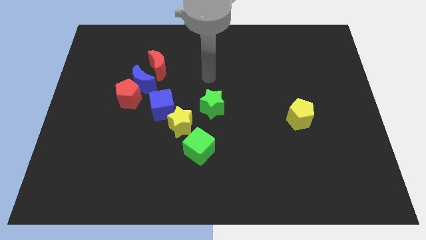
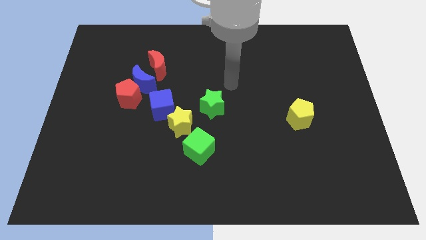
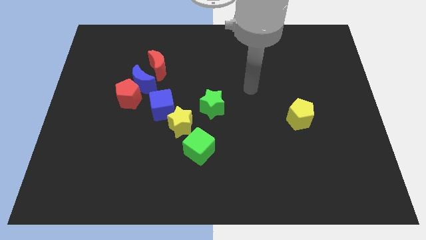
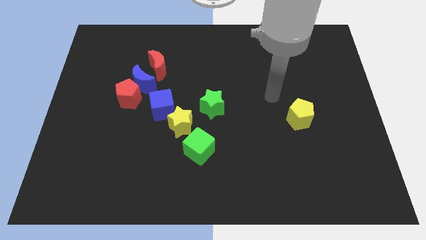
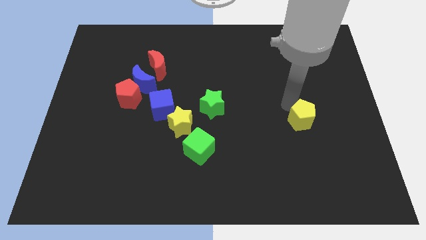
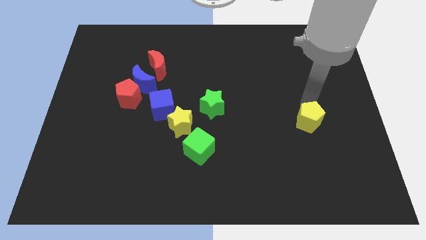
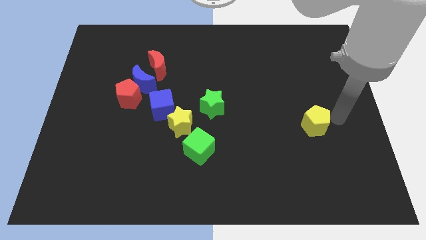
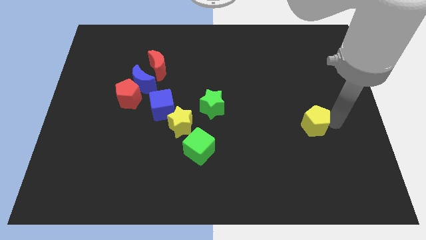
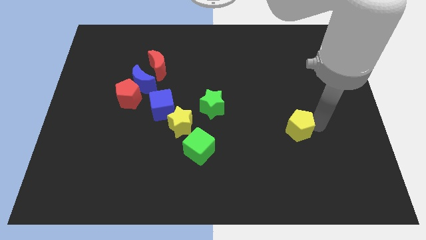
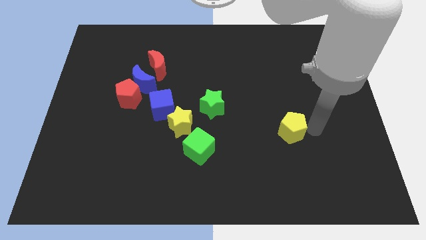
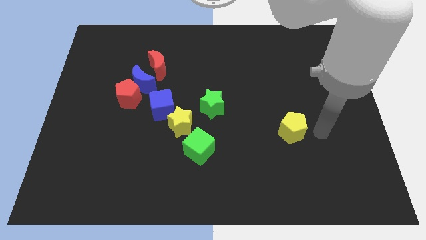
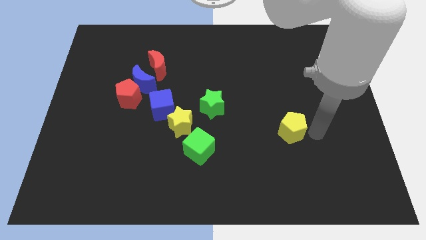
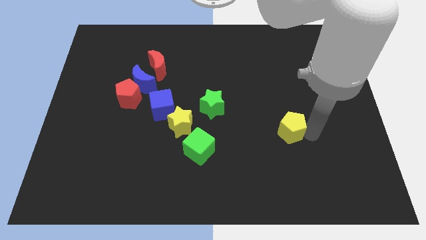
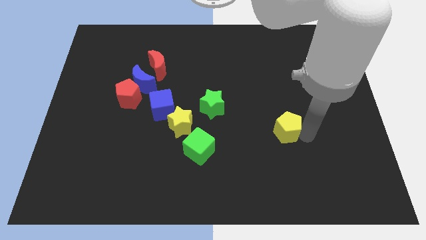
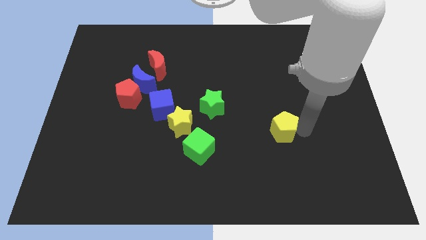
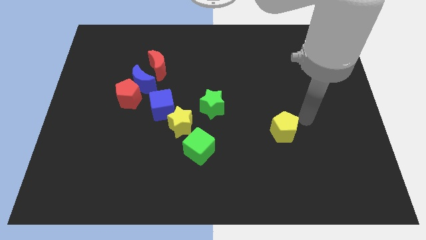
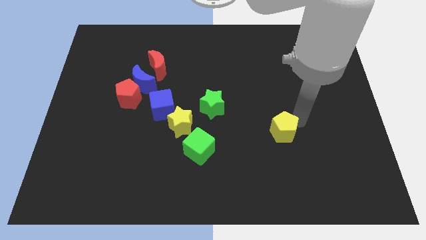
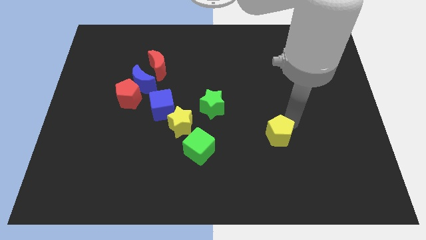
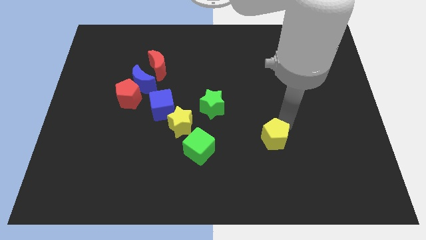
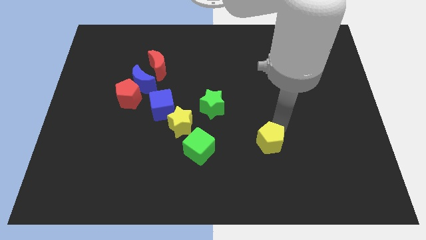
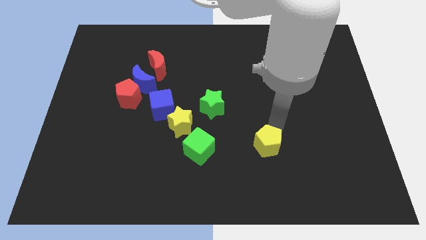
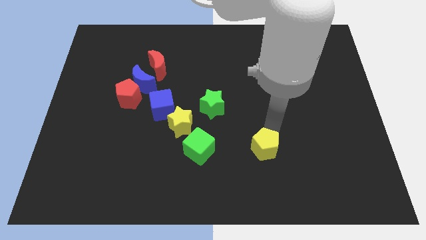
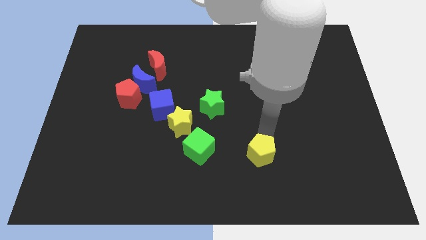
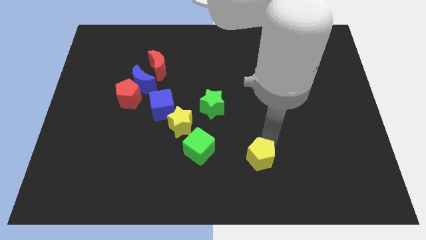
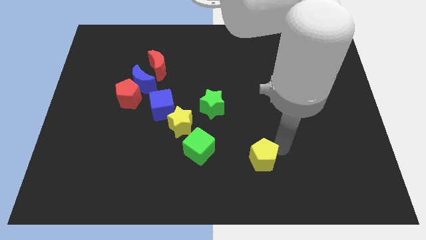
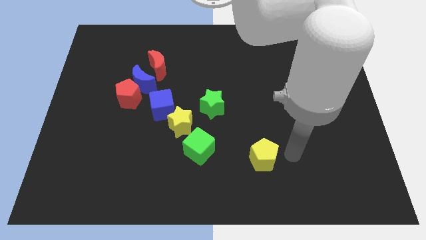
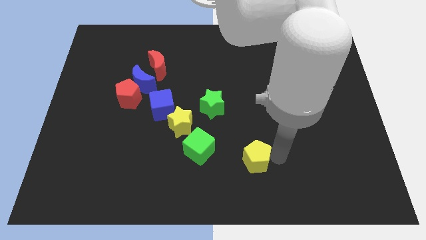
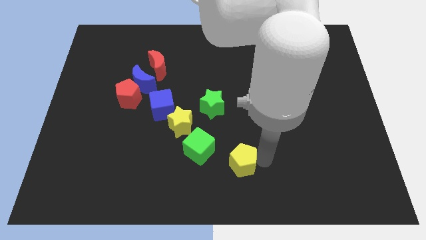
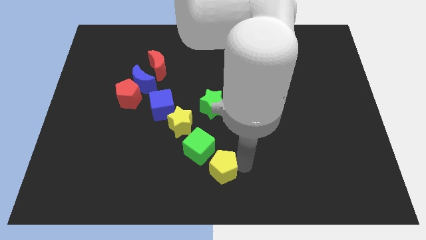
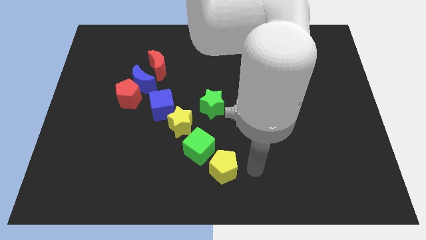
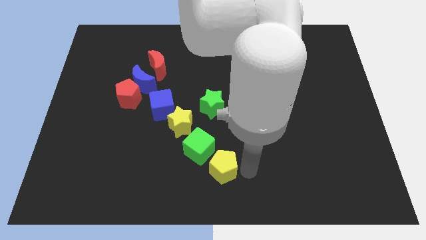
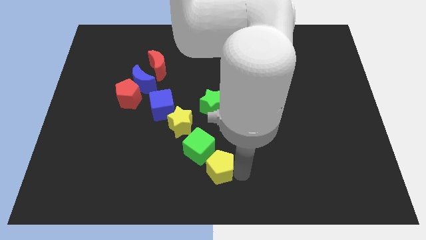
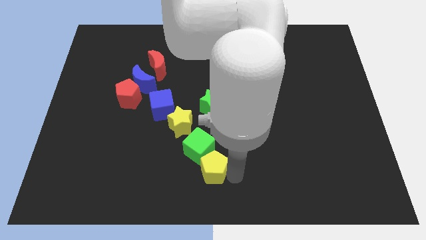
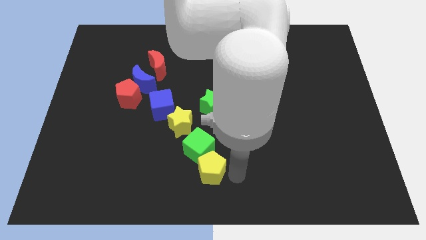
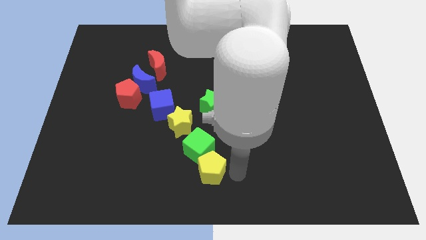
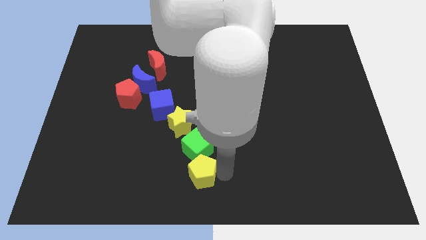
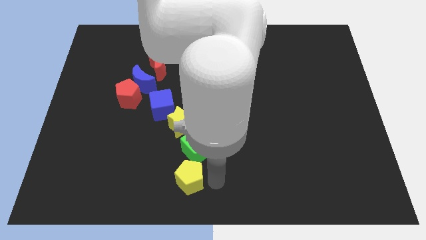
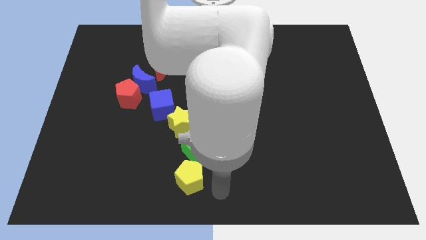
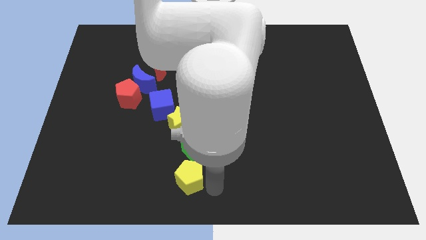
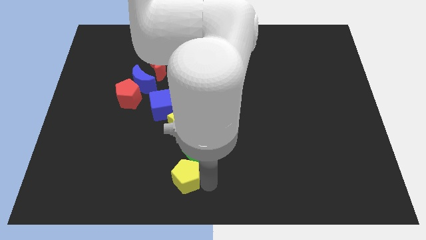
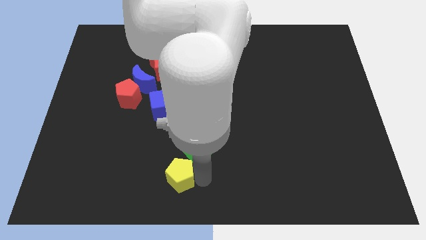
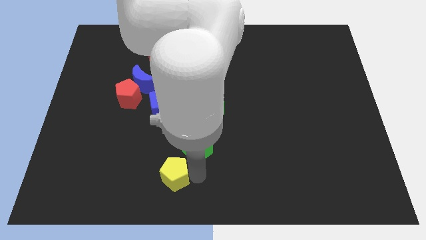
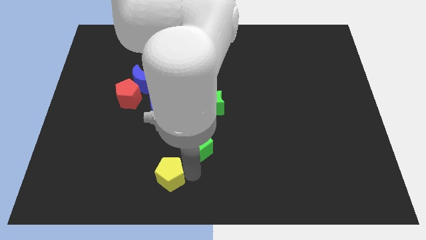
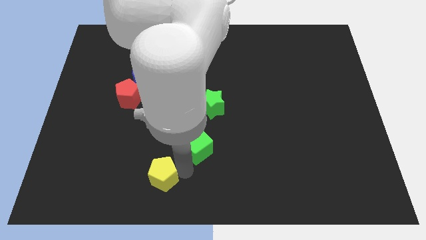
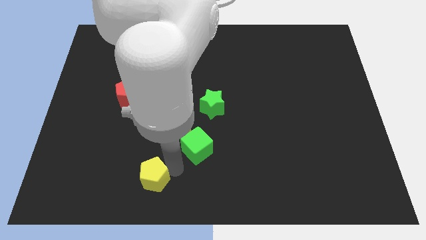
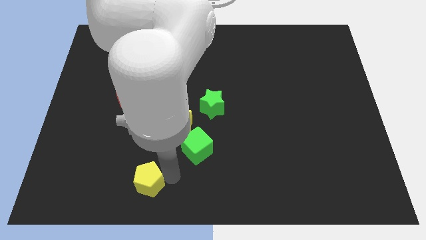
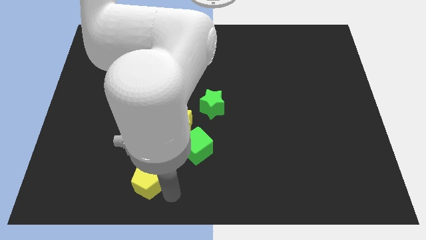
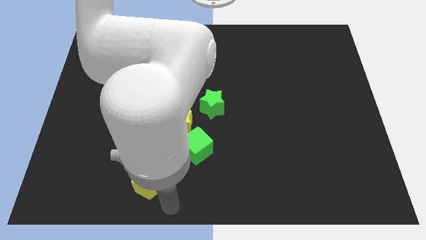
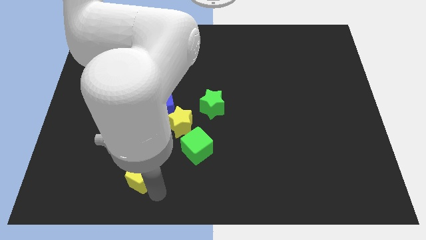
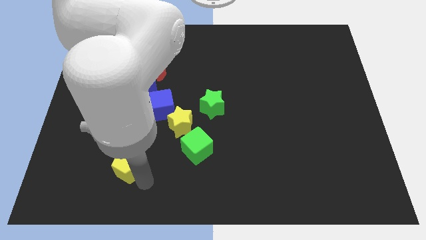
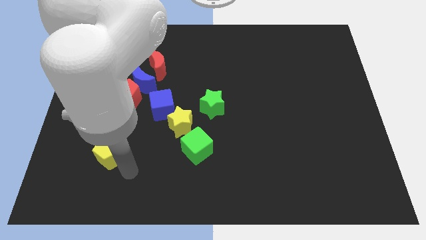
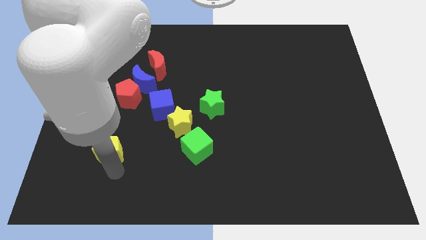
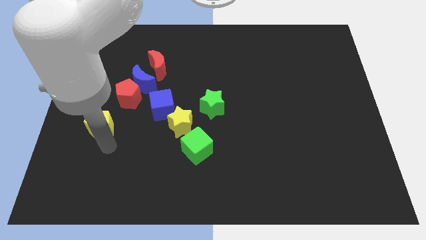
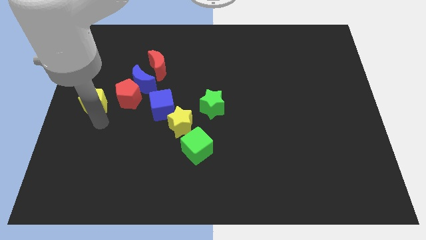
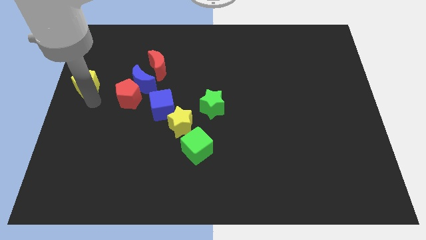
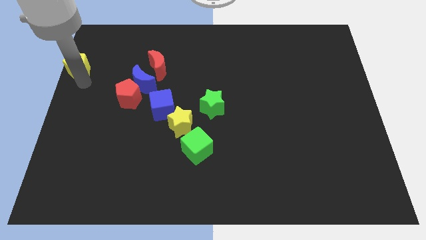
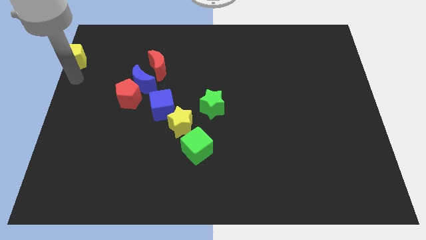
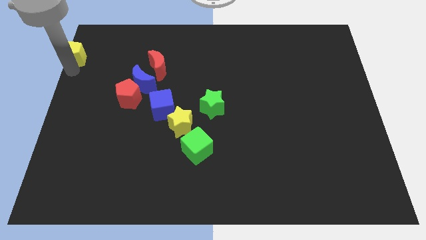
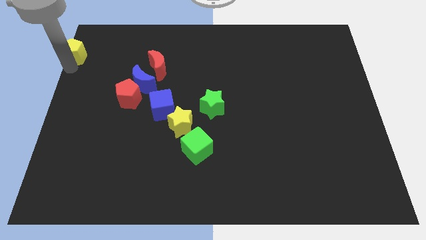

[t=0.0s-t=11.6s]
push the yellow pentagon to the upper left corner

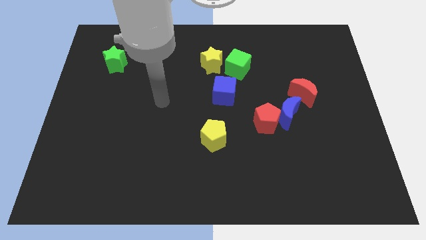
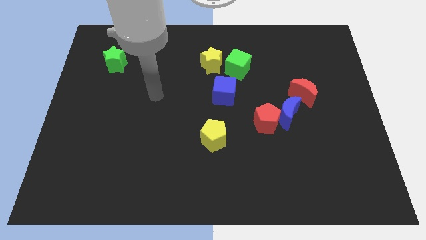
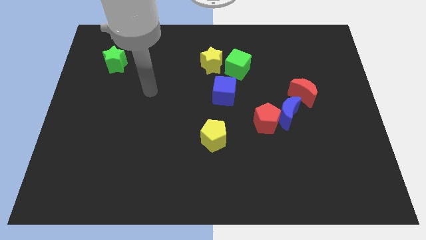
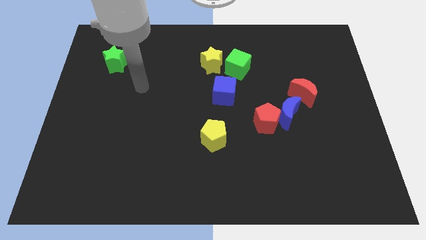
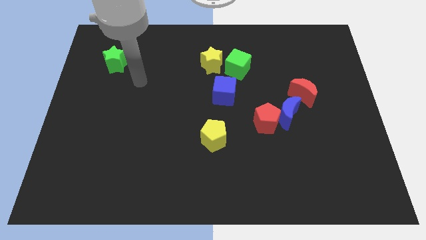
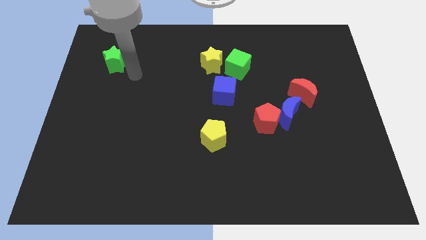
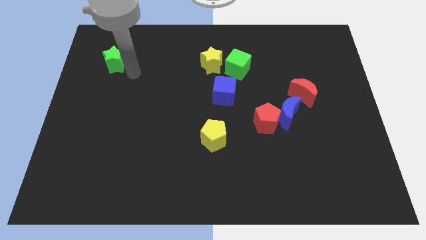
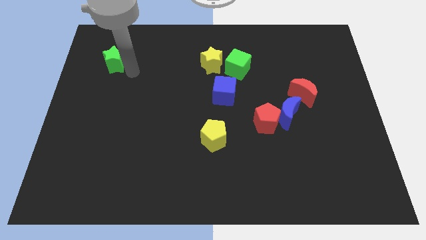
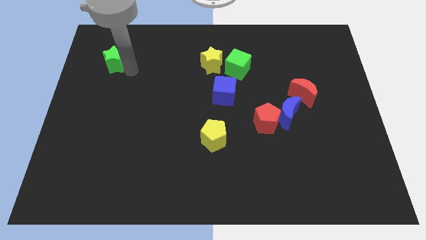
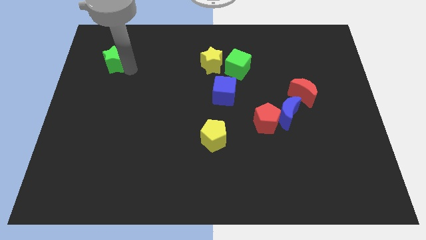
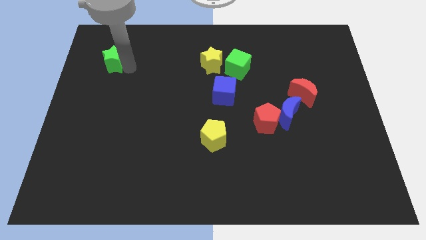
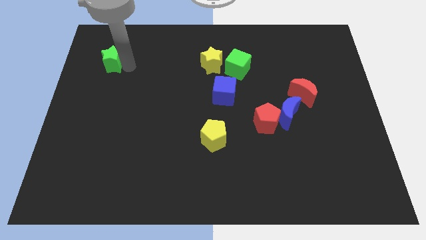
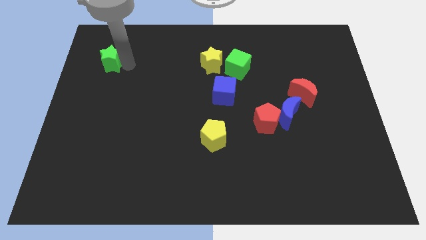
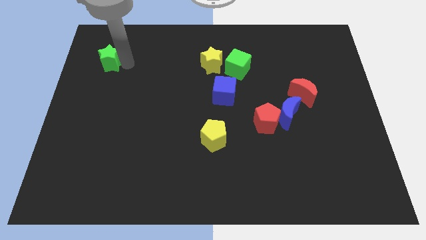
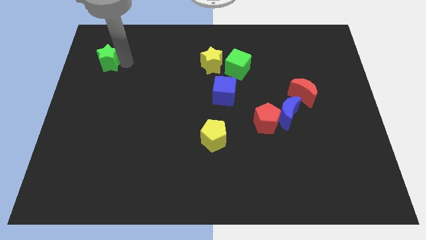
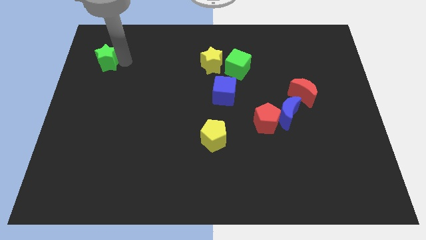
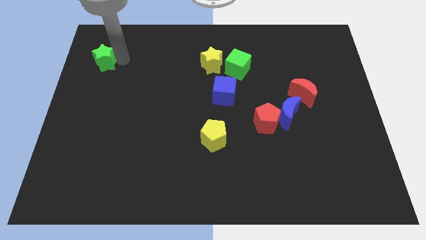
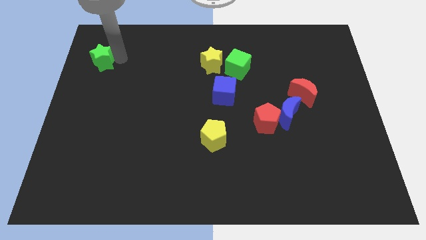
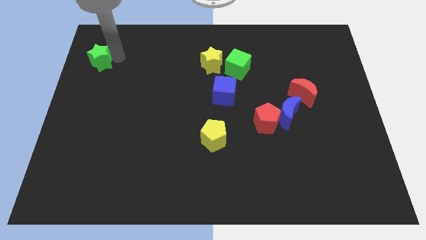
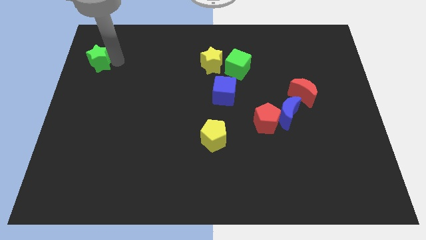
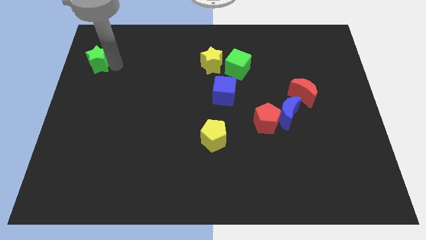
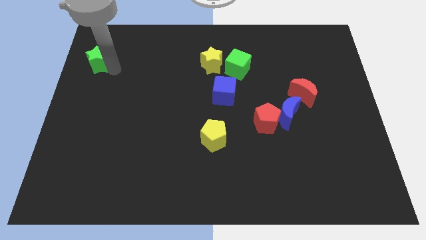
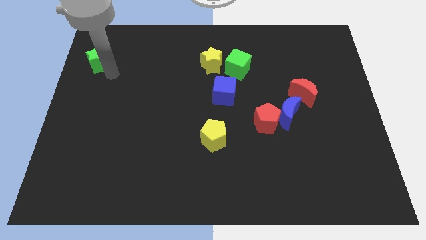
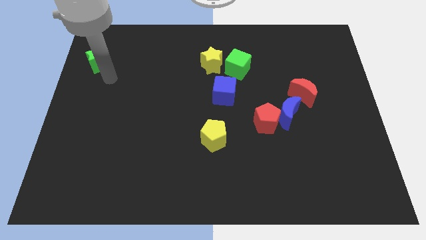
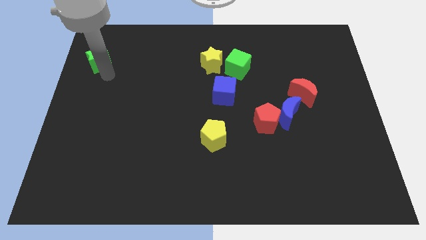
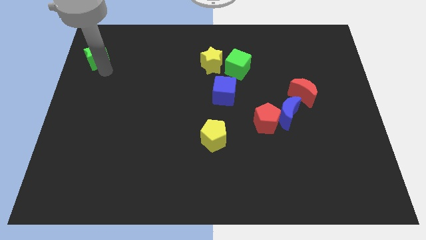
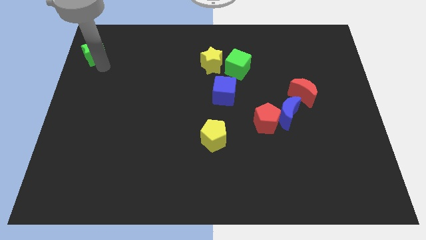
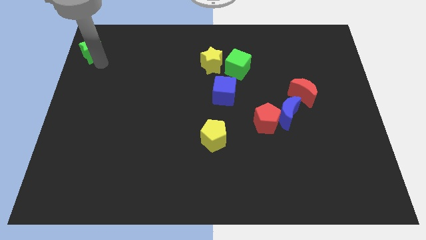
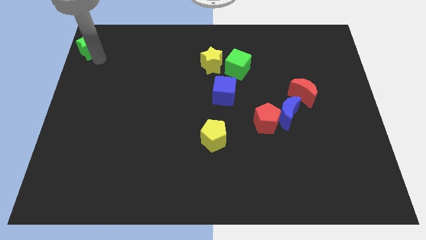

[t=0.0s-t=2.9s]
push the green star to the upper left corner
